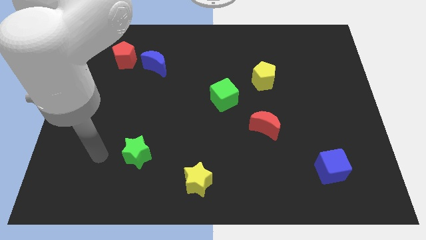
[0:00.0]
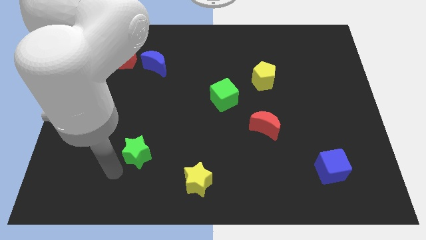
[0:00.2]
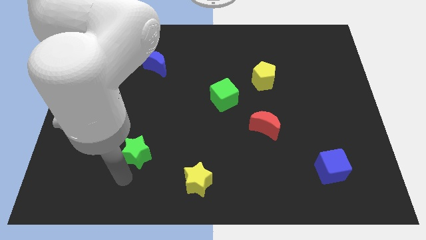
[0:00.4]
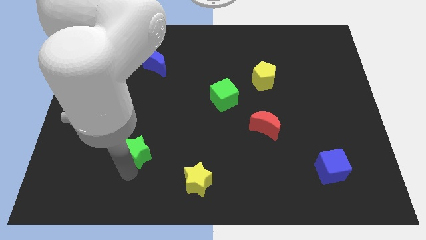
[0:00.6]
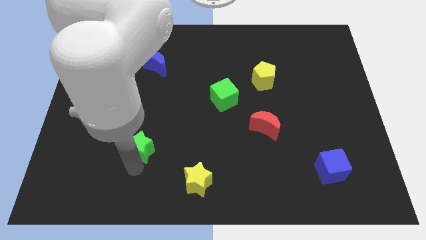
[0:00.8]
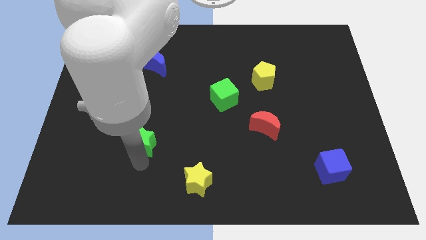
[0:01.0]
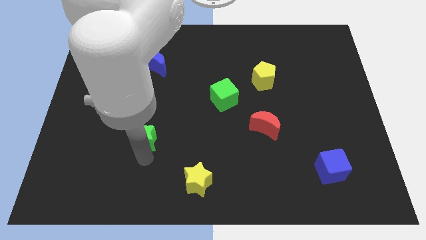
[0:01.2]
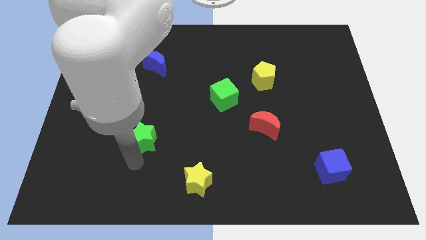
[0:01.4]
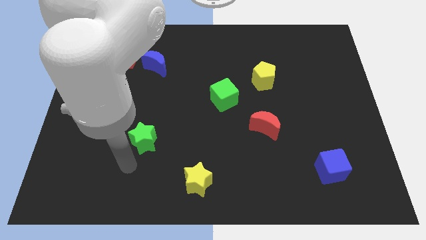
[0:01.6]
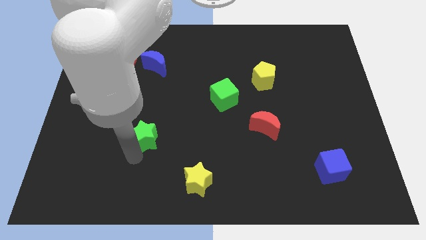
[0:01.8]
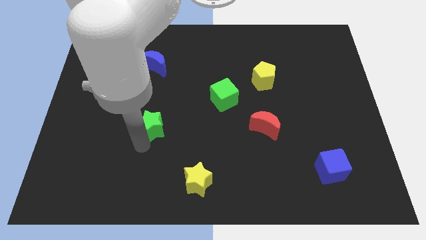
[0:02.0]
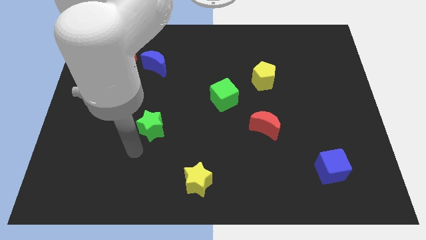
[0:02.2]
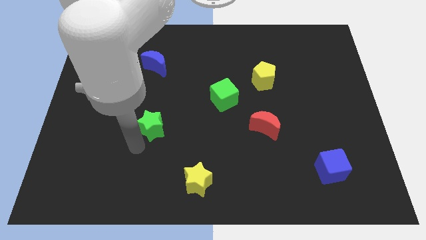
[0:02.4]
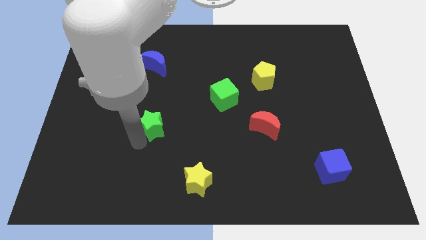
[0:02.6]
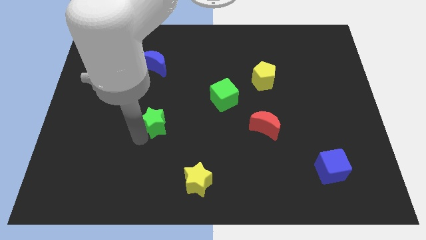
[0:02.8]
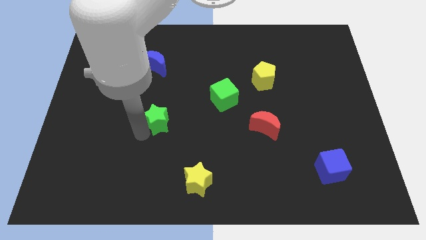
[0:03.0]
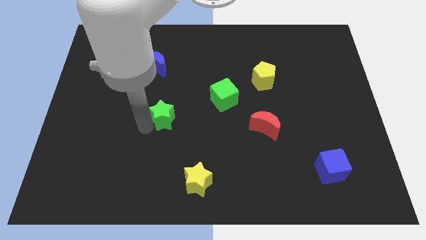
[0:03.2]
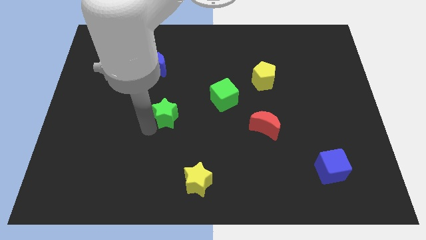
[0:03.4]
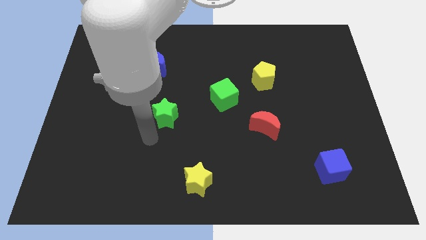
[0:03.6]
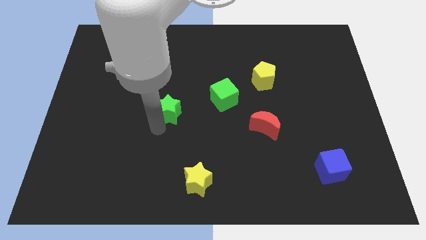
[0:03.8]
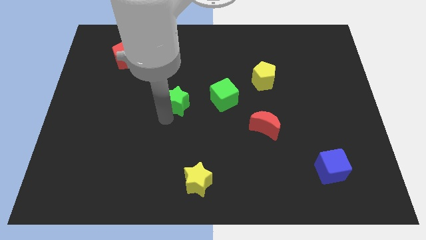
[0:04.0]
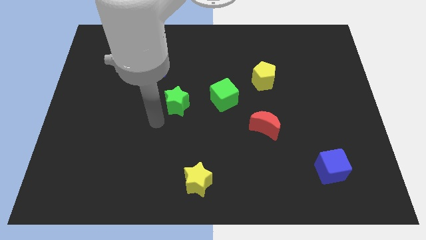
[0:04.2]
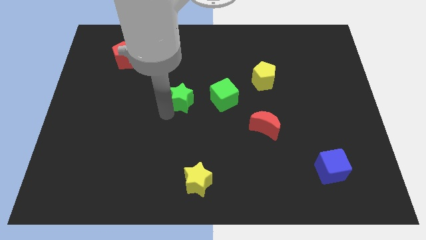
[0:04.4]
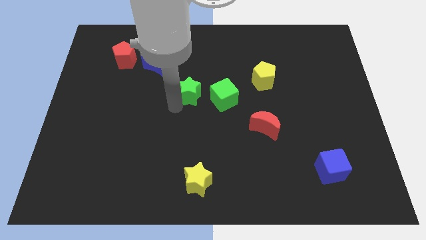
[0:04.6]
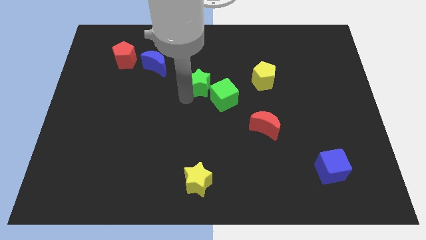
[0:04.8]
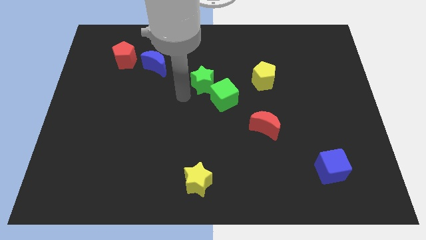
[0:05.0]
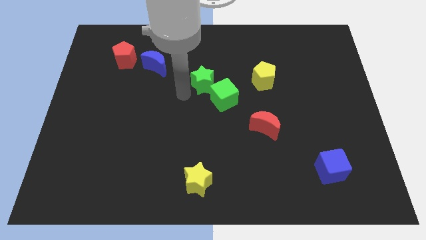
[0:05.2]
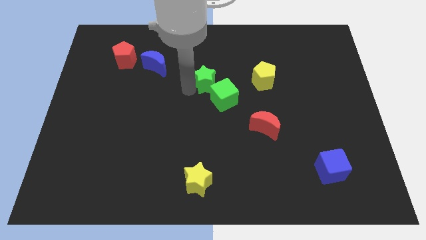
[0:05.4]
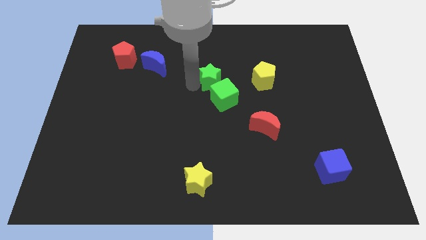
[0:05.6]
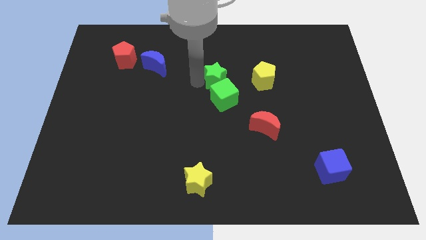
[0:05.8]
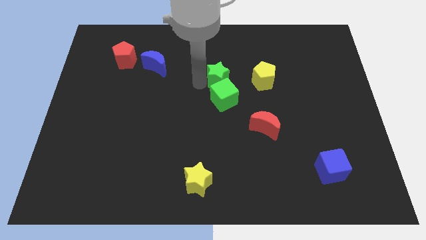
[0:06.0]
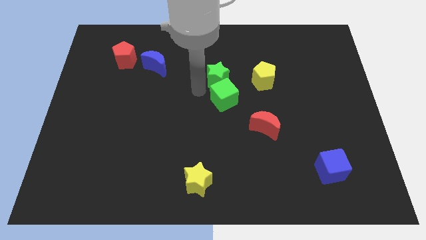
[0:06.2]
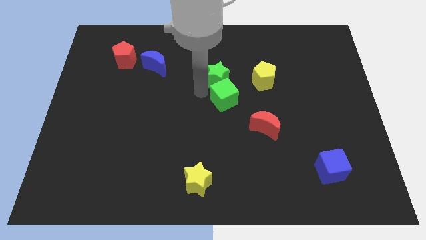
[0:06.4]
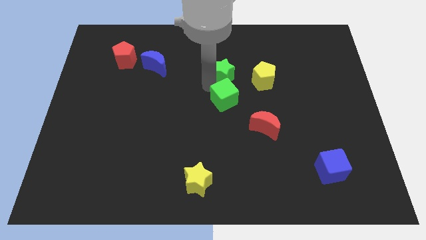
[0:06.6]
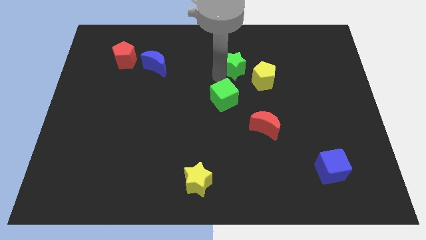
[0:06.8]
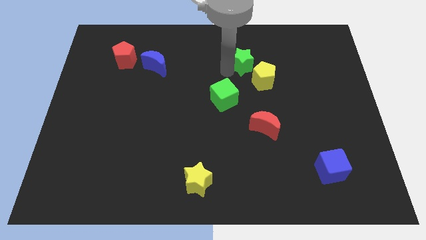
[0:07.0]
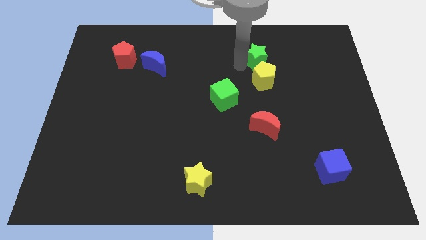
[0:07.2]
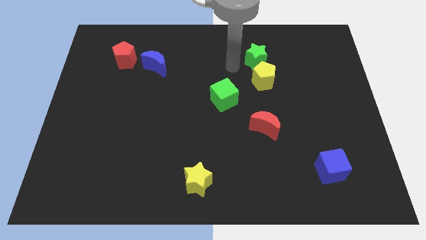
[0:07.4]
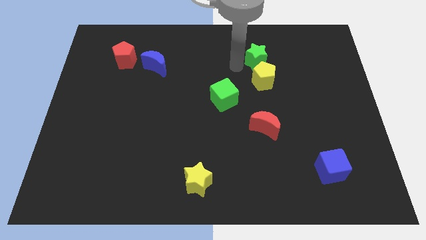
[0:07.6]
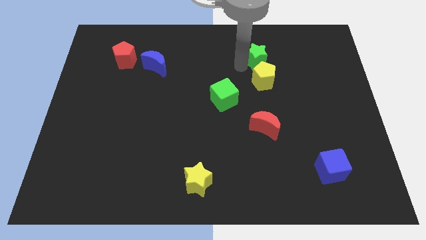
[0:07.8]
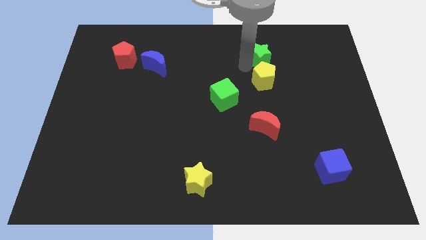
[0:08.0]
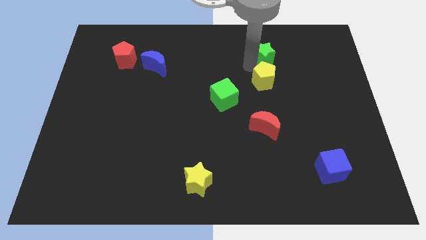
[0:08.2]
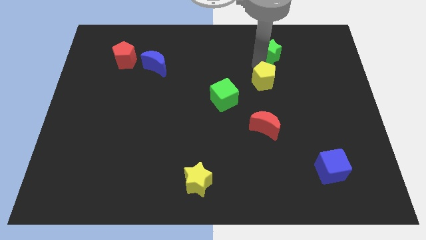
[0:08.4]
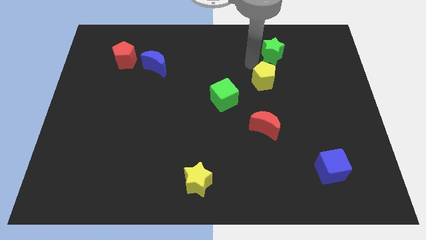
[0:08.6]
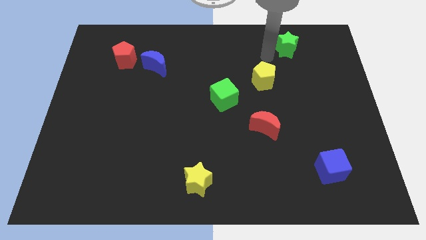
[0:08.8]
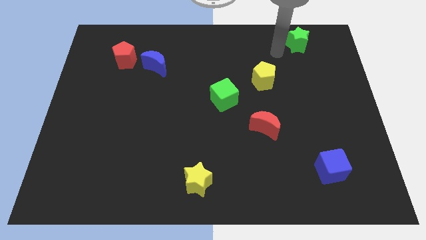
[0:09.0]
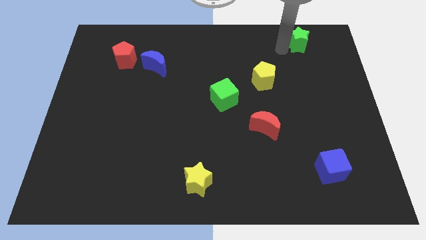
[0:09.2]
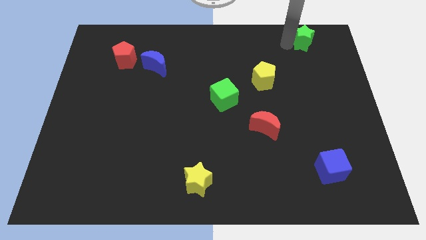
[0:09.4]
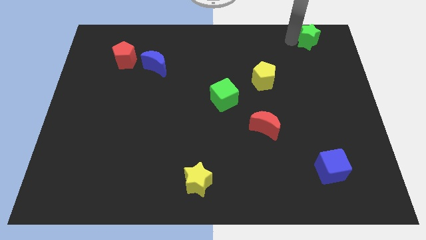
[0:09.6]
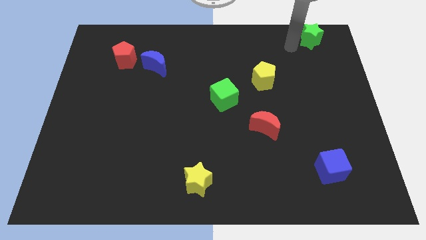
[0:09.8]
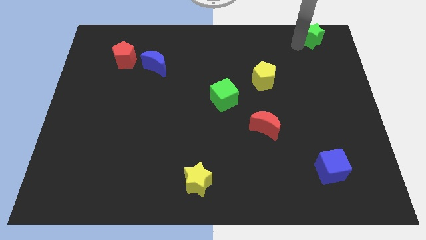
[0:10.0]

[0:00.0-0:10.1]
push the green star to the top right

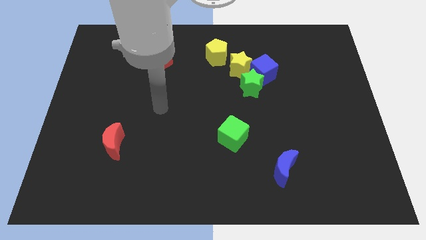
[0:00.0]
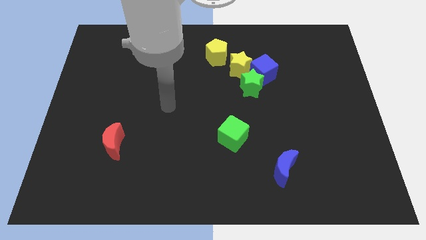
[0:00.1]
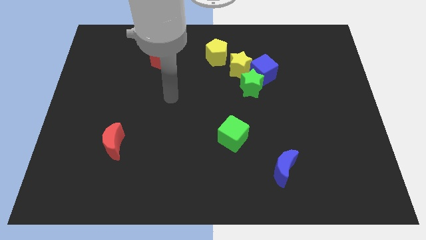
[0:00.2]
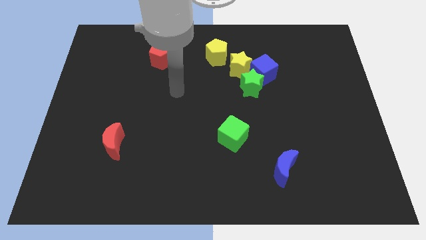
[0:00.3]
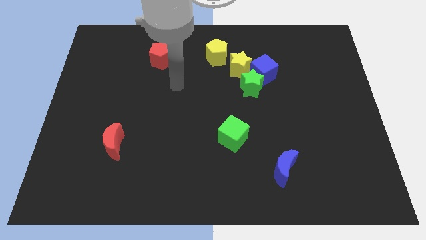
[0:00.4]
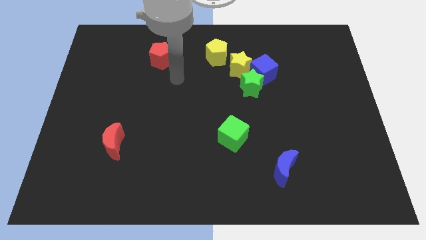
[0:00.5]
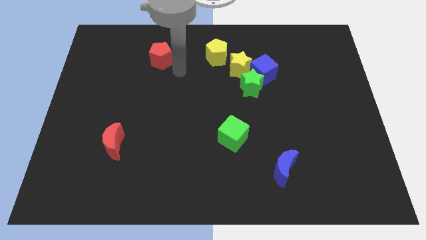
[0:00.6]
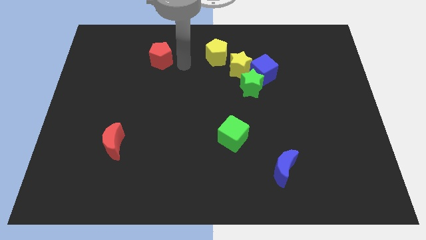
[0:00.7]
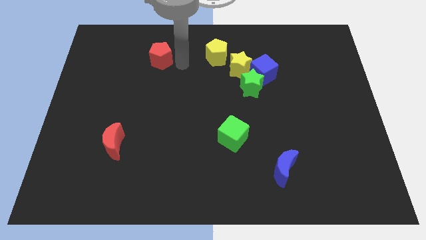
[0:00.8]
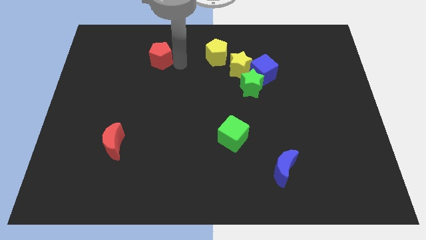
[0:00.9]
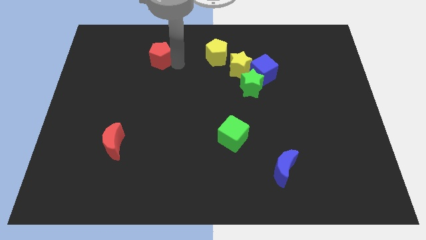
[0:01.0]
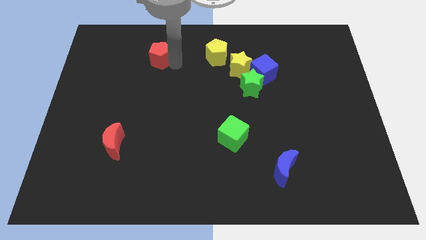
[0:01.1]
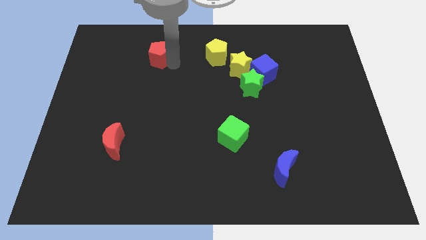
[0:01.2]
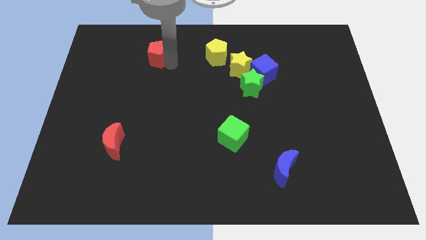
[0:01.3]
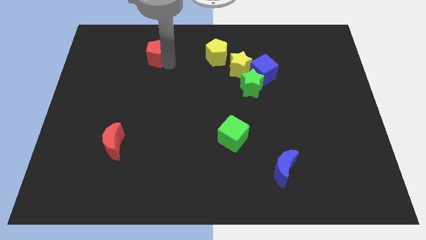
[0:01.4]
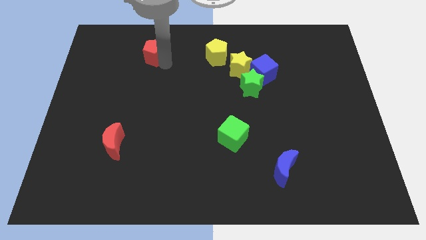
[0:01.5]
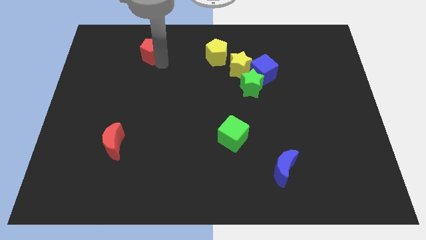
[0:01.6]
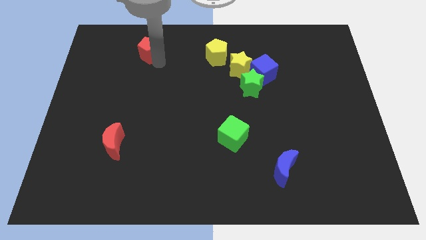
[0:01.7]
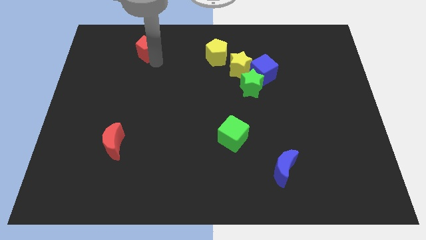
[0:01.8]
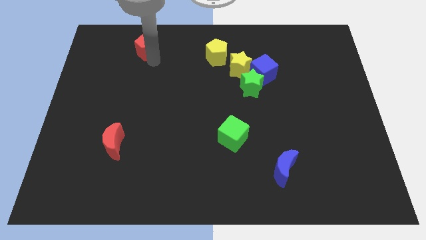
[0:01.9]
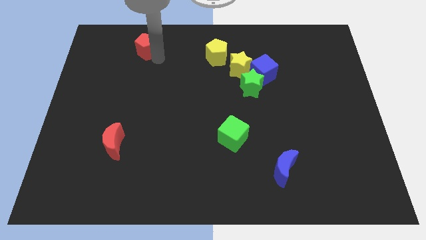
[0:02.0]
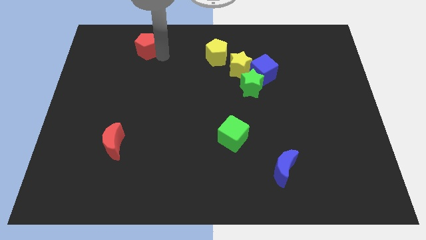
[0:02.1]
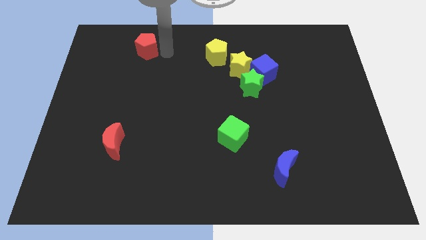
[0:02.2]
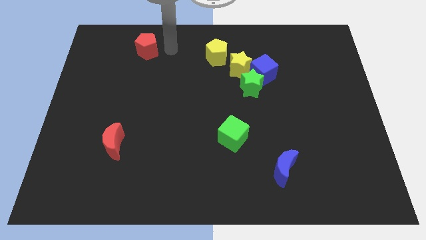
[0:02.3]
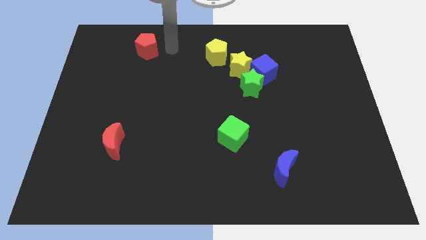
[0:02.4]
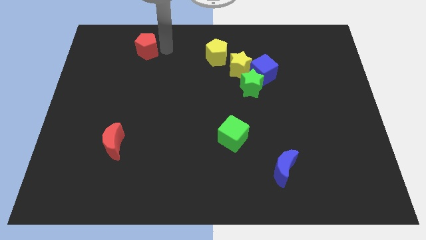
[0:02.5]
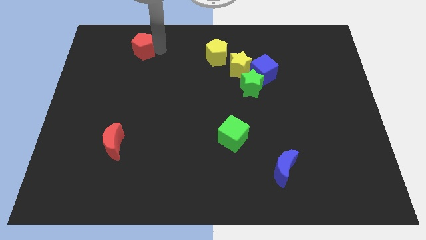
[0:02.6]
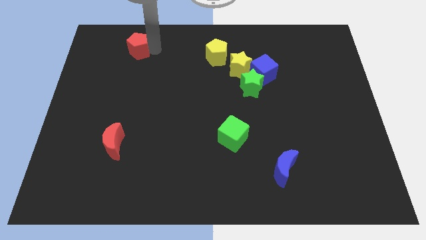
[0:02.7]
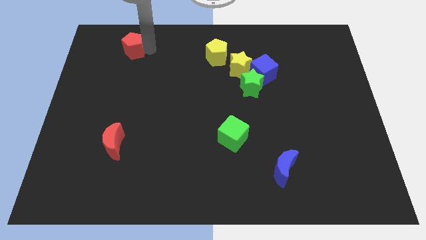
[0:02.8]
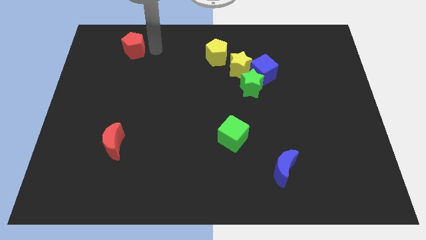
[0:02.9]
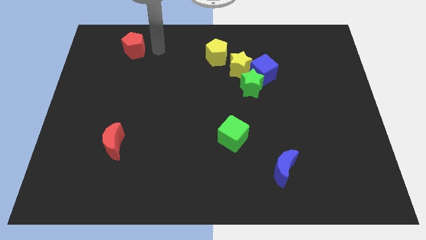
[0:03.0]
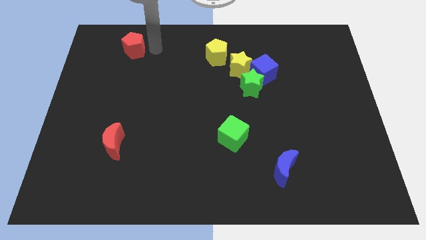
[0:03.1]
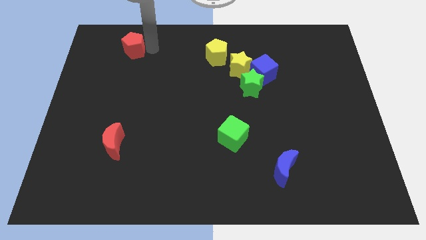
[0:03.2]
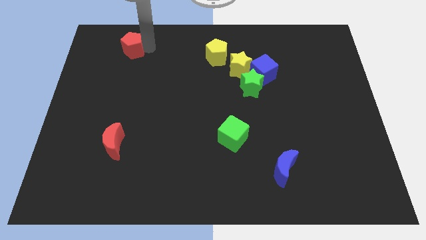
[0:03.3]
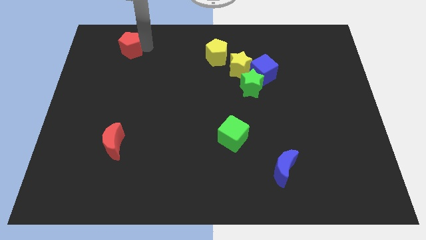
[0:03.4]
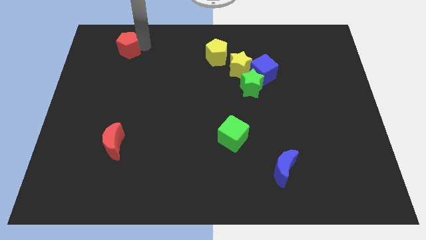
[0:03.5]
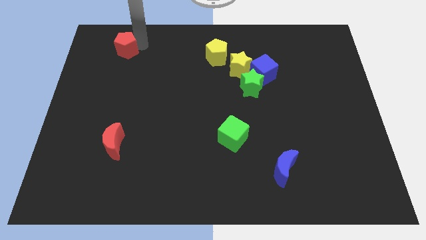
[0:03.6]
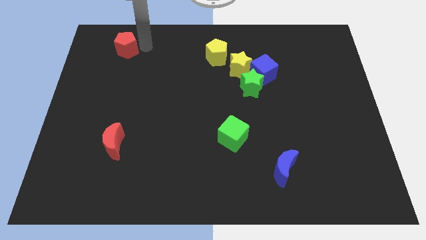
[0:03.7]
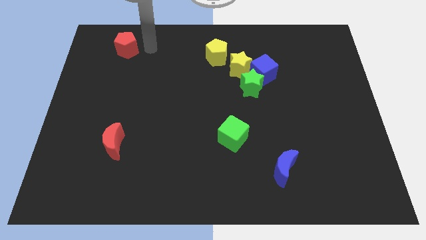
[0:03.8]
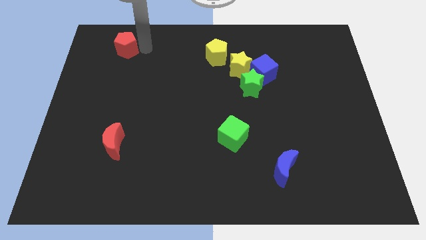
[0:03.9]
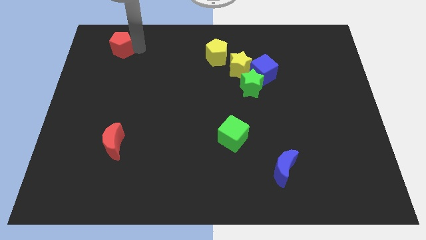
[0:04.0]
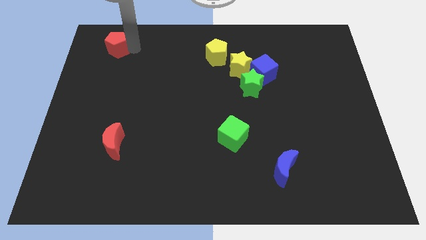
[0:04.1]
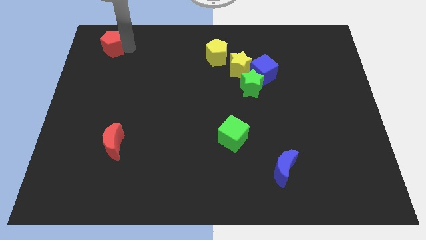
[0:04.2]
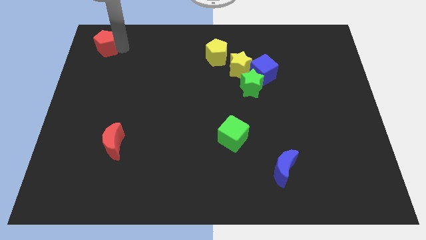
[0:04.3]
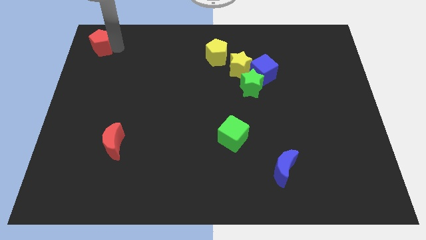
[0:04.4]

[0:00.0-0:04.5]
slide the red pentagon to the top left corner
